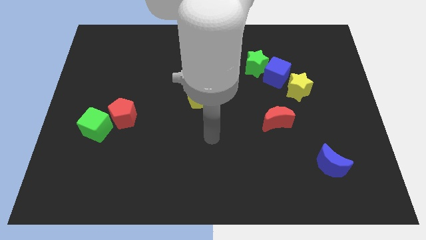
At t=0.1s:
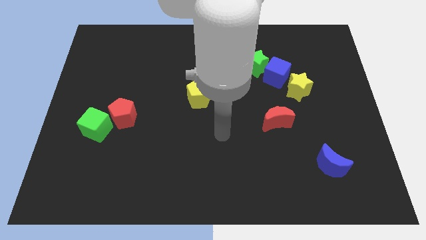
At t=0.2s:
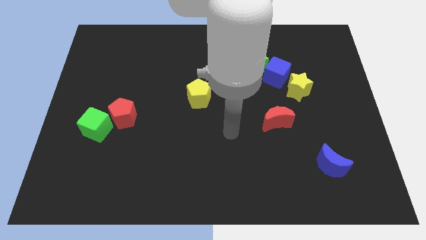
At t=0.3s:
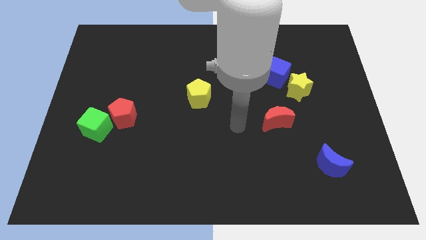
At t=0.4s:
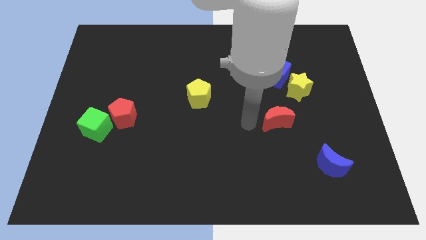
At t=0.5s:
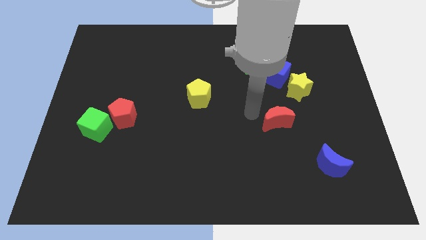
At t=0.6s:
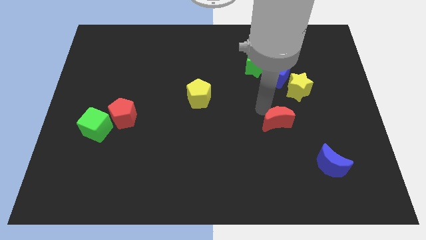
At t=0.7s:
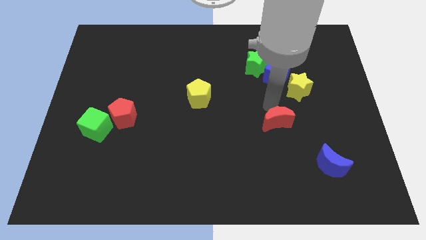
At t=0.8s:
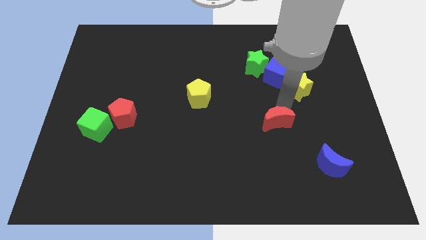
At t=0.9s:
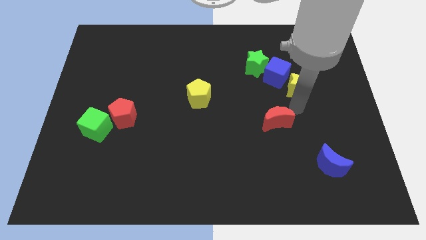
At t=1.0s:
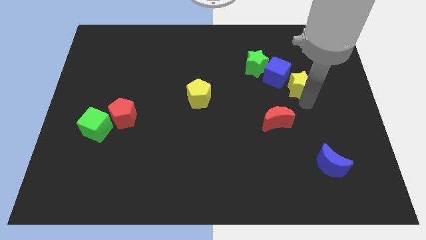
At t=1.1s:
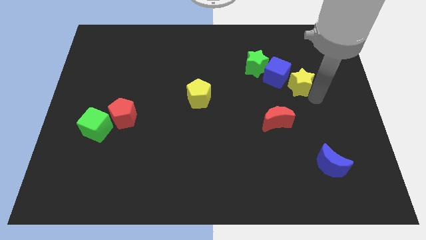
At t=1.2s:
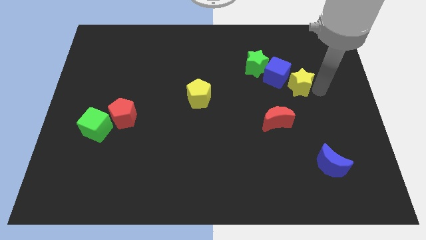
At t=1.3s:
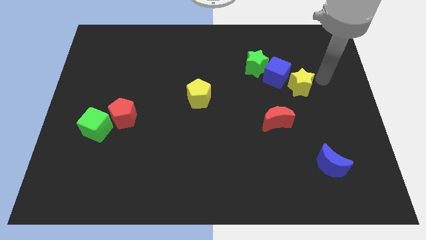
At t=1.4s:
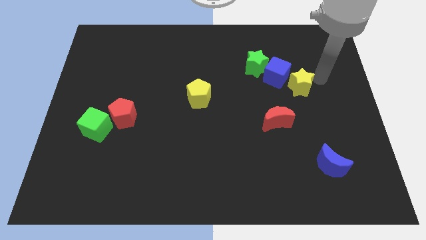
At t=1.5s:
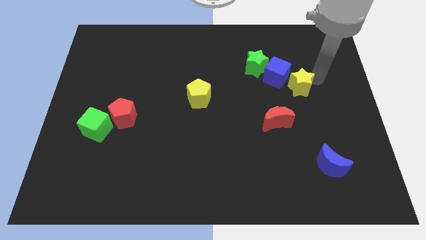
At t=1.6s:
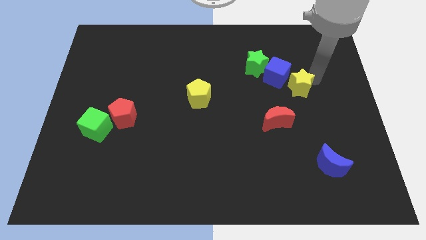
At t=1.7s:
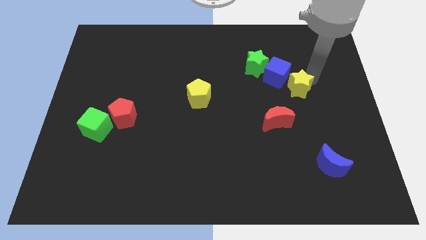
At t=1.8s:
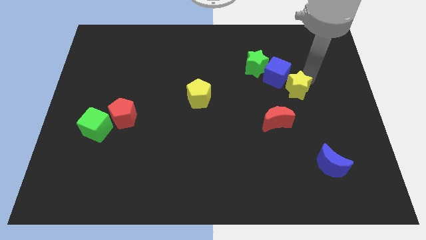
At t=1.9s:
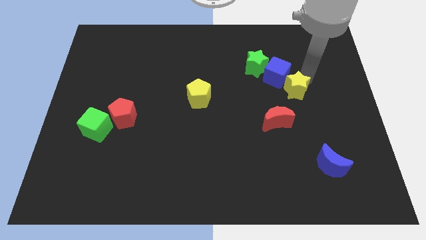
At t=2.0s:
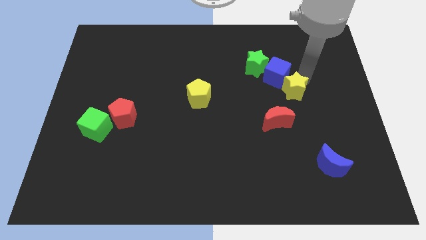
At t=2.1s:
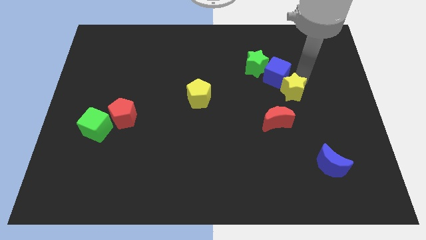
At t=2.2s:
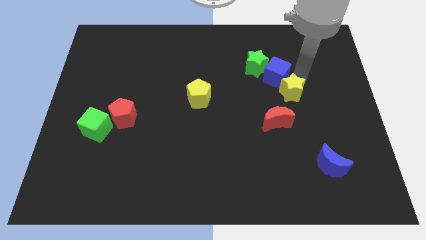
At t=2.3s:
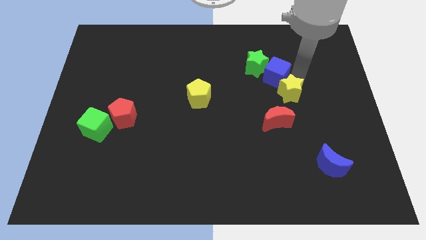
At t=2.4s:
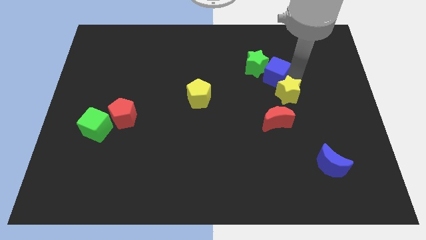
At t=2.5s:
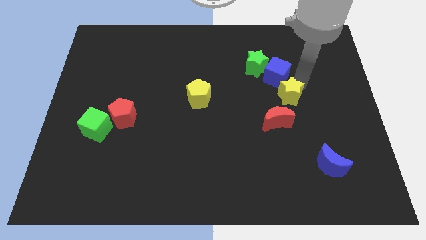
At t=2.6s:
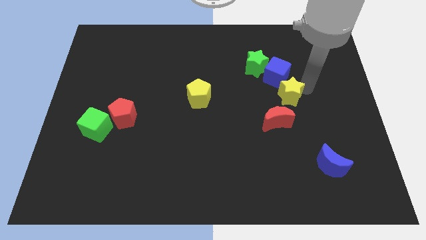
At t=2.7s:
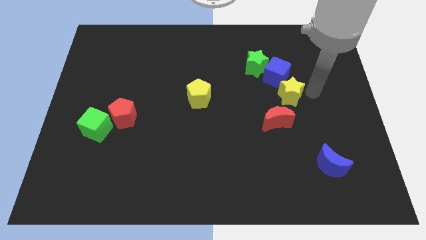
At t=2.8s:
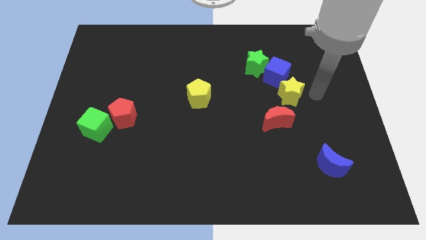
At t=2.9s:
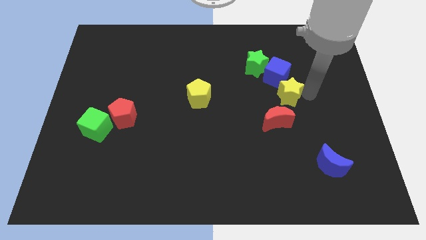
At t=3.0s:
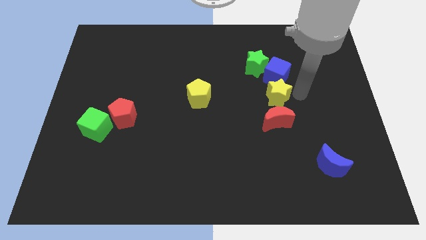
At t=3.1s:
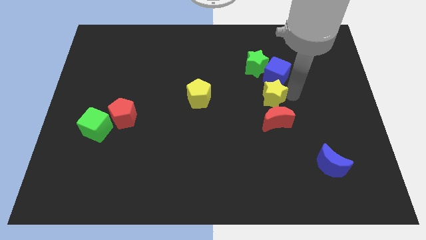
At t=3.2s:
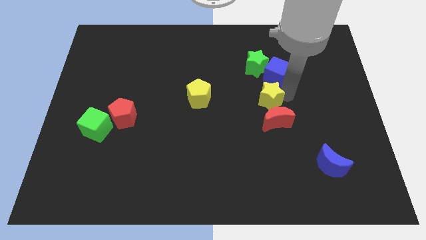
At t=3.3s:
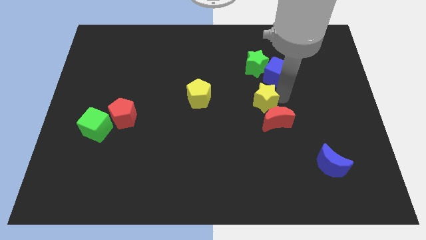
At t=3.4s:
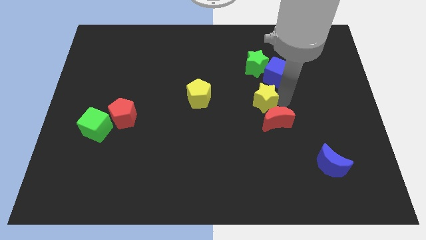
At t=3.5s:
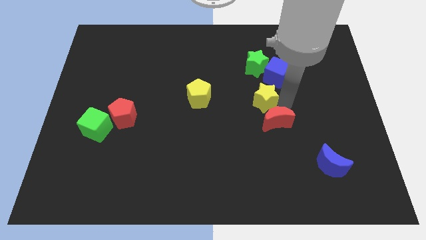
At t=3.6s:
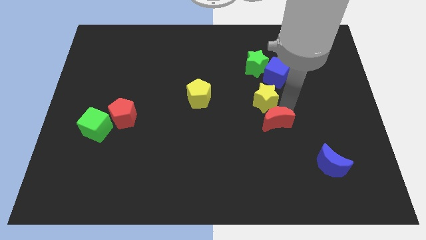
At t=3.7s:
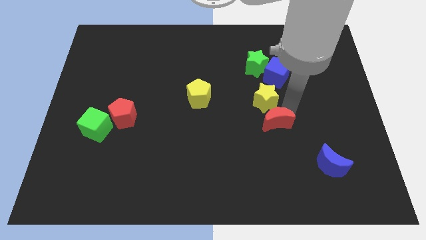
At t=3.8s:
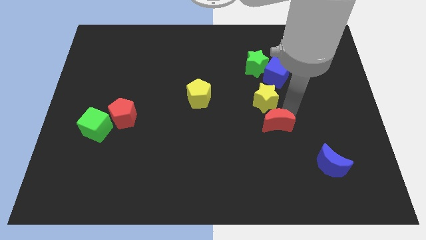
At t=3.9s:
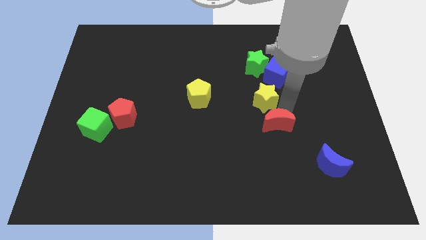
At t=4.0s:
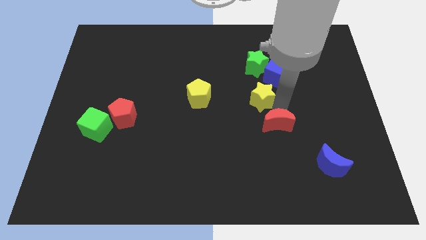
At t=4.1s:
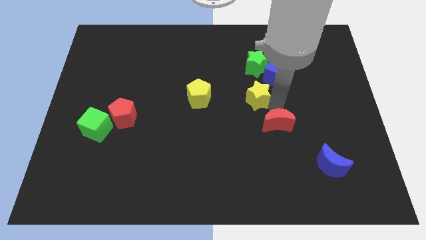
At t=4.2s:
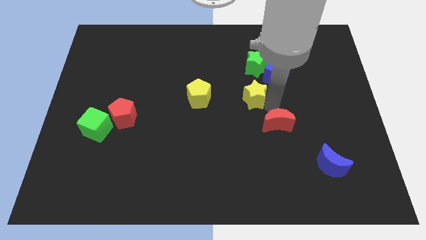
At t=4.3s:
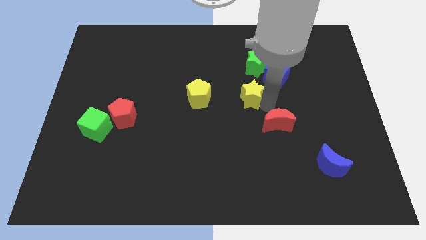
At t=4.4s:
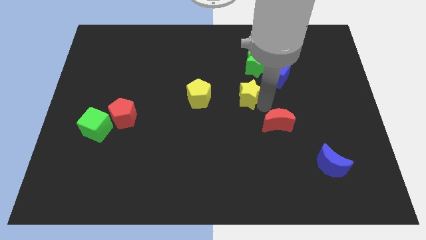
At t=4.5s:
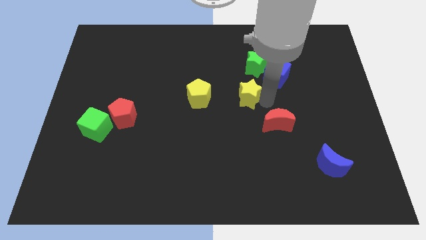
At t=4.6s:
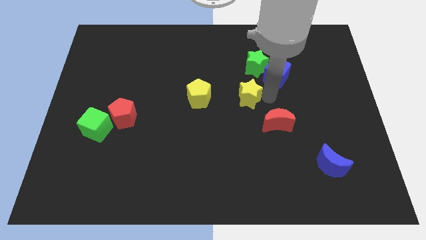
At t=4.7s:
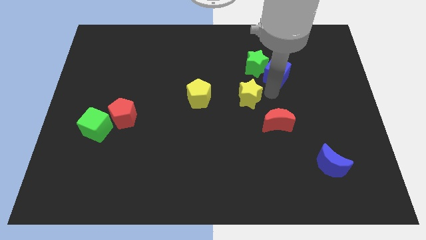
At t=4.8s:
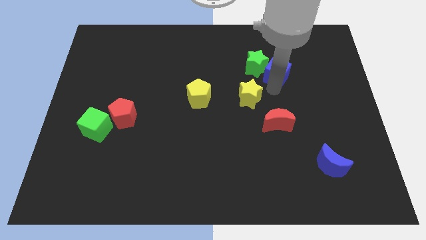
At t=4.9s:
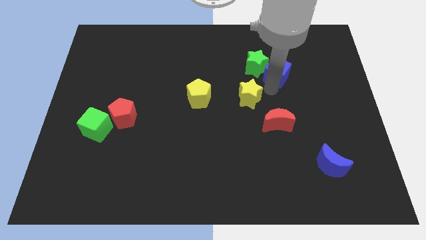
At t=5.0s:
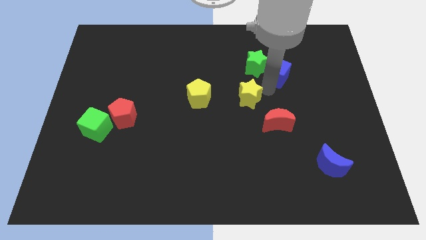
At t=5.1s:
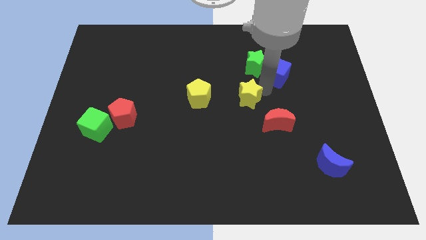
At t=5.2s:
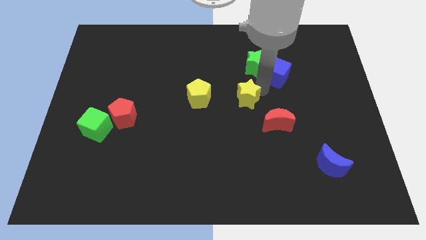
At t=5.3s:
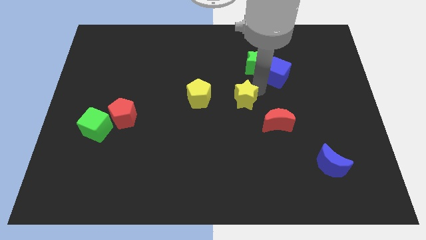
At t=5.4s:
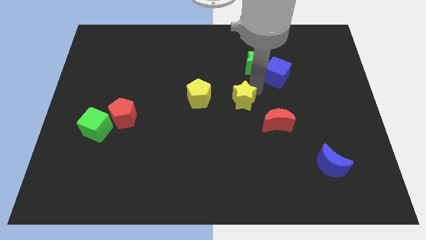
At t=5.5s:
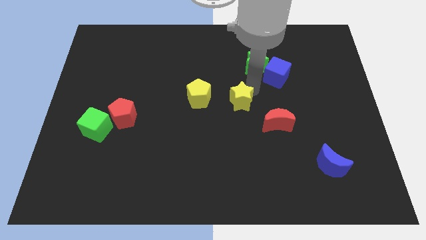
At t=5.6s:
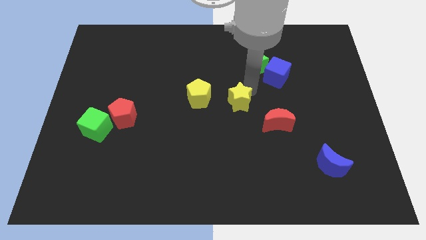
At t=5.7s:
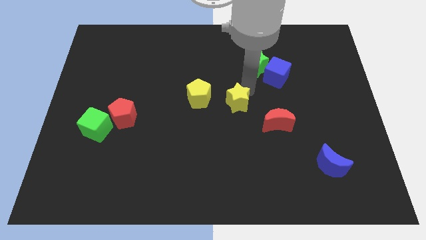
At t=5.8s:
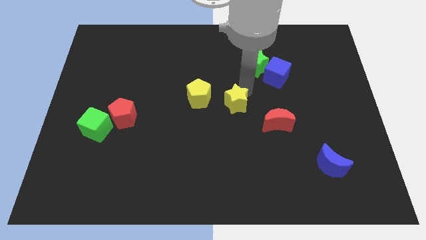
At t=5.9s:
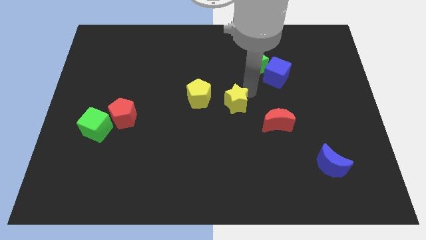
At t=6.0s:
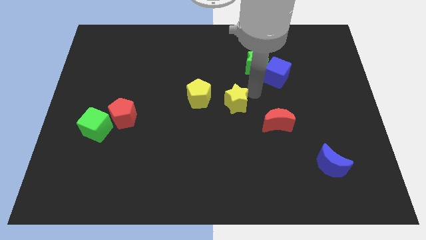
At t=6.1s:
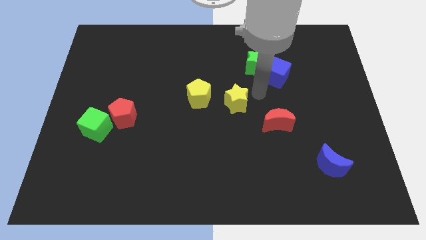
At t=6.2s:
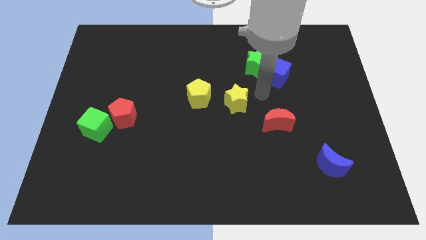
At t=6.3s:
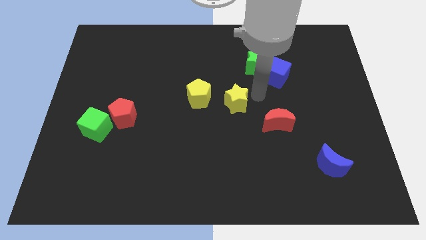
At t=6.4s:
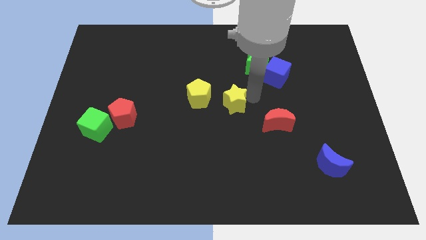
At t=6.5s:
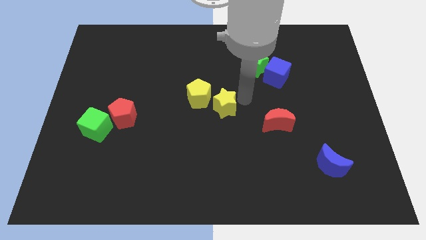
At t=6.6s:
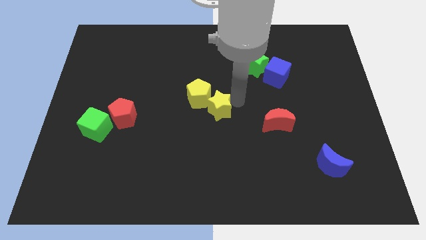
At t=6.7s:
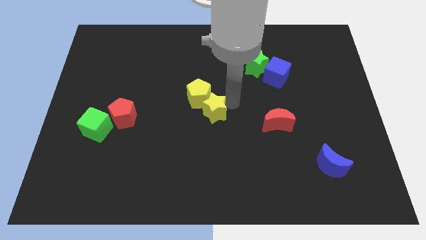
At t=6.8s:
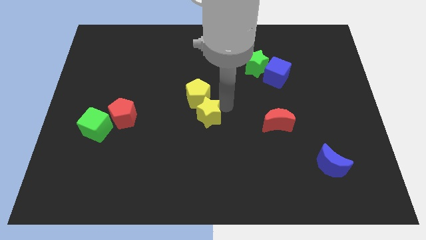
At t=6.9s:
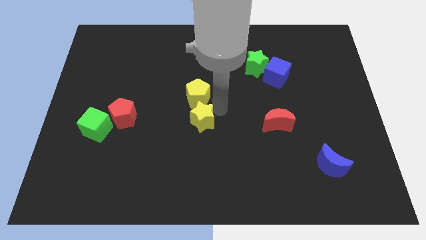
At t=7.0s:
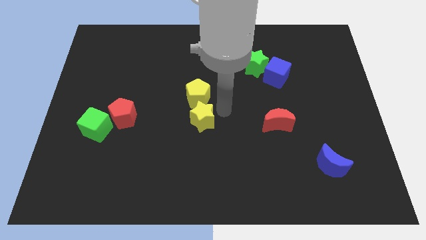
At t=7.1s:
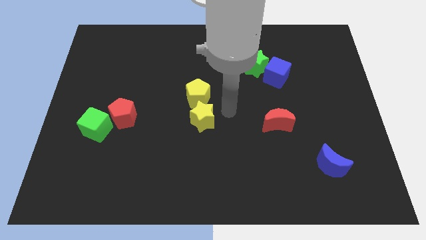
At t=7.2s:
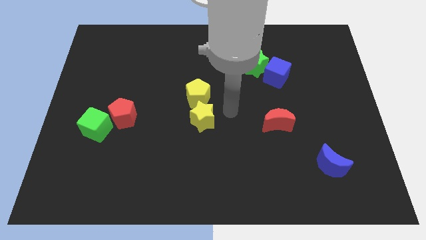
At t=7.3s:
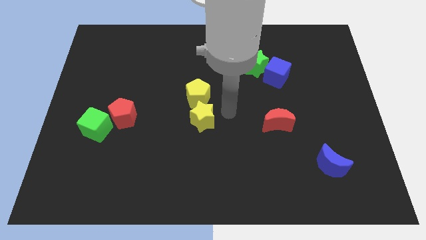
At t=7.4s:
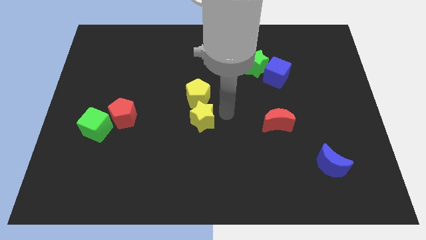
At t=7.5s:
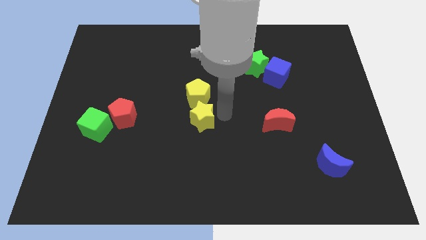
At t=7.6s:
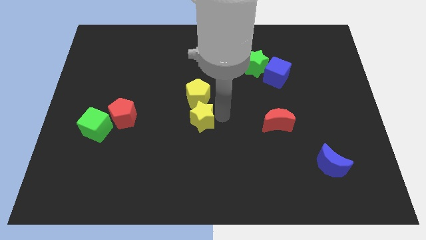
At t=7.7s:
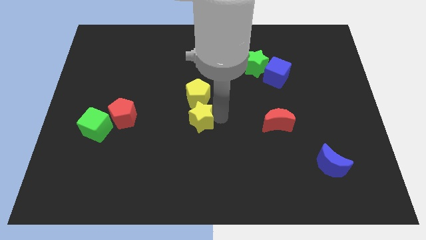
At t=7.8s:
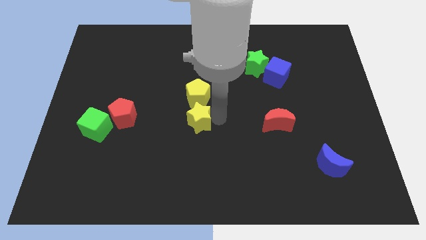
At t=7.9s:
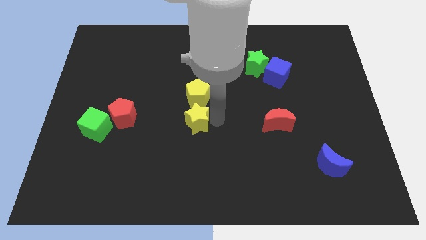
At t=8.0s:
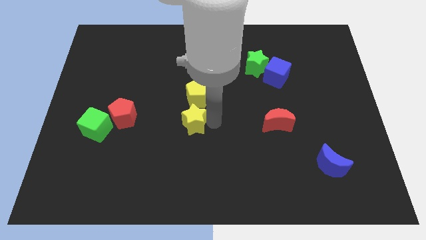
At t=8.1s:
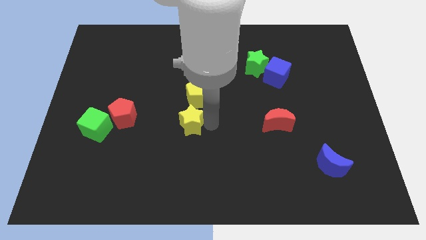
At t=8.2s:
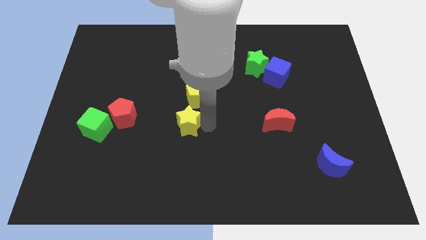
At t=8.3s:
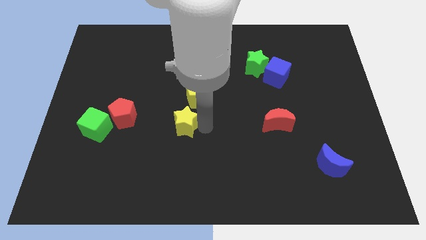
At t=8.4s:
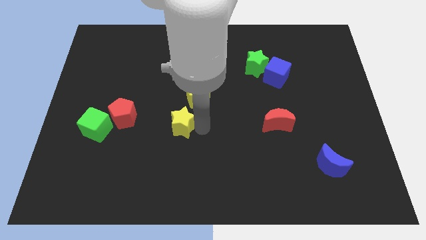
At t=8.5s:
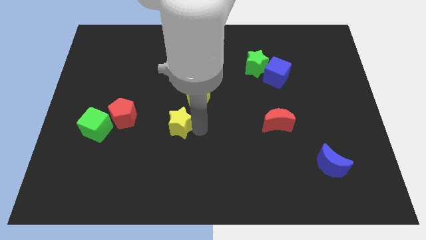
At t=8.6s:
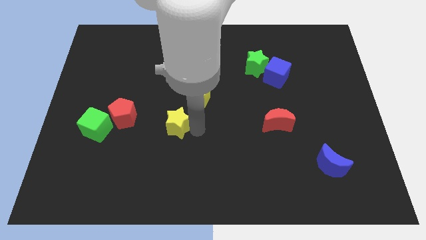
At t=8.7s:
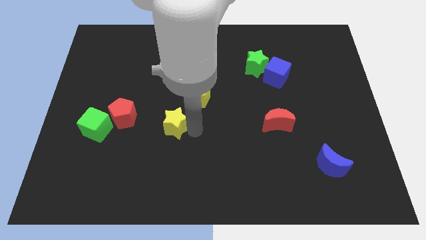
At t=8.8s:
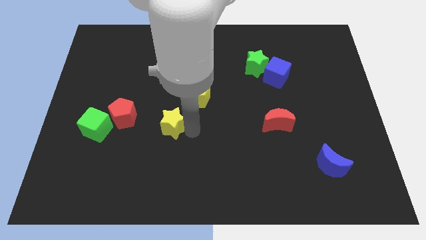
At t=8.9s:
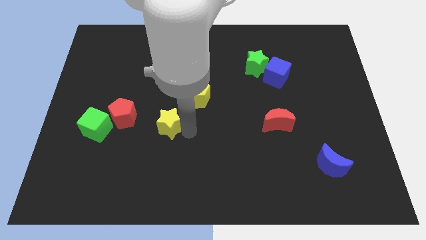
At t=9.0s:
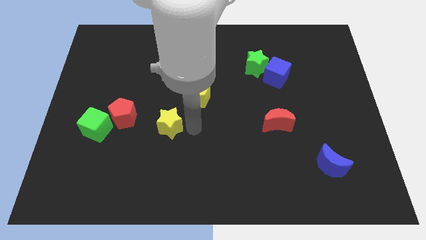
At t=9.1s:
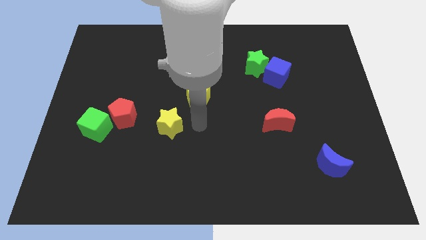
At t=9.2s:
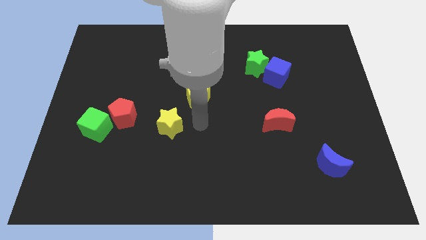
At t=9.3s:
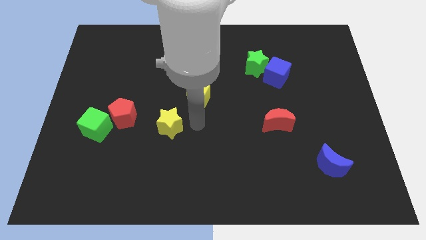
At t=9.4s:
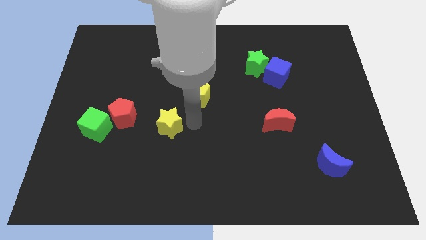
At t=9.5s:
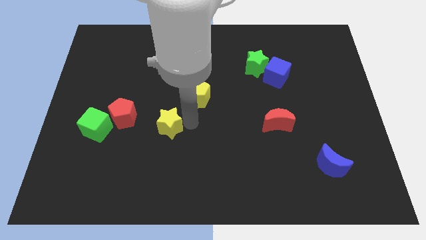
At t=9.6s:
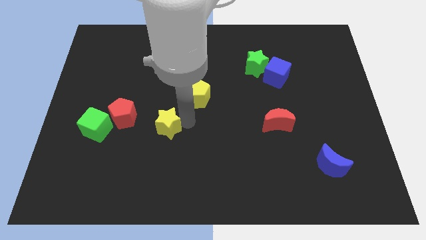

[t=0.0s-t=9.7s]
push the yellow star to the right of the green cube
